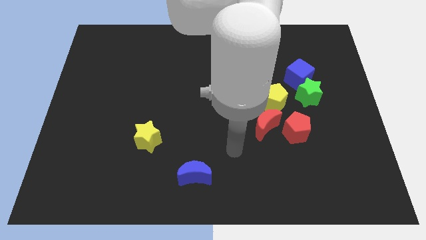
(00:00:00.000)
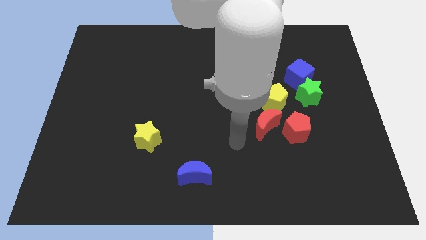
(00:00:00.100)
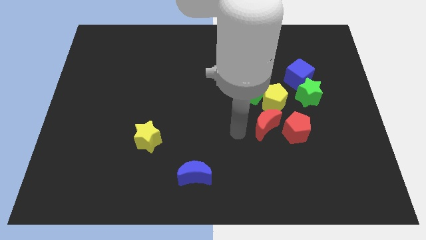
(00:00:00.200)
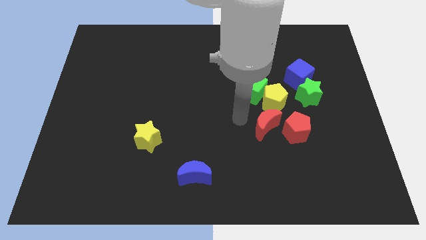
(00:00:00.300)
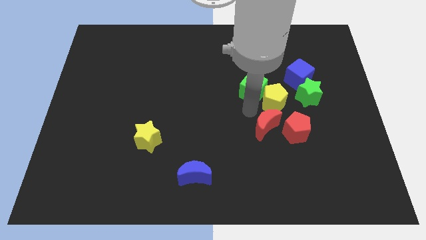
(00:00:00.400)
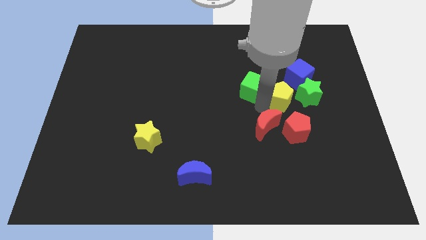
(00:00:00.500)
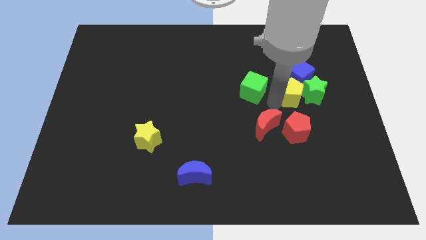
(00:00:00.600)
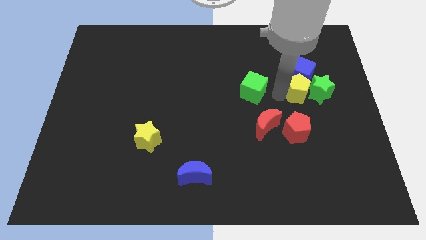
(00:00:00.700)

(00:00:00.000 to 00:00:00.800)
move the green cube away from the yellow pentagon

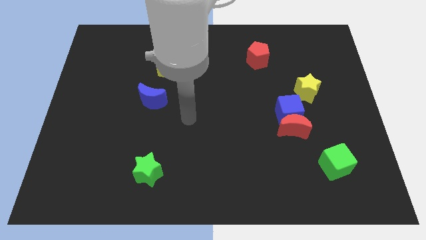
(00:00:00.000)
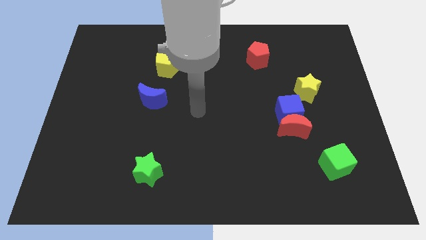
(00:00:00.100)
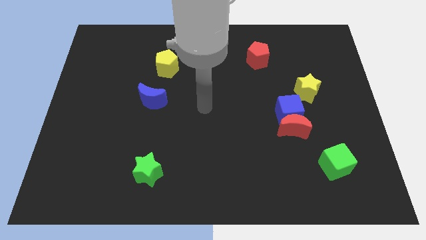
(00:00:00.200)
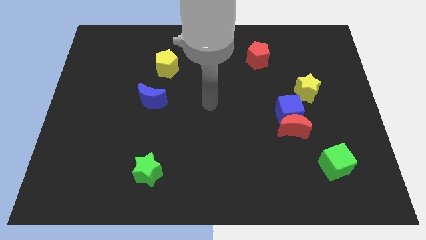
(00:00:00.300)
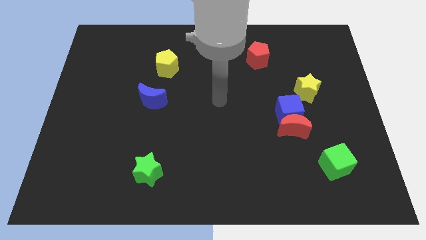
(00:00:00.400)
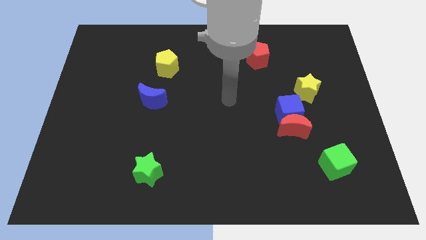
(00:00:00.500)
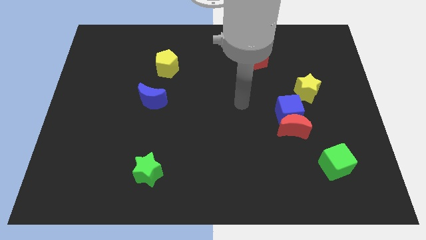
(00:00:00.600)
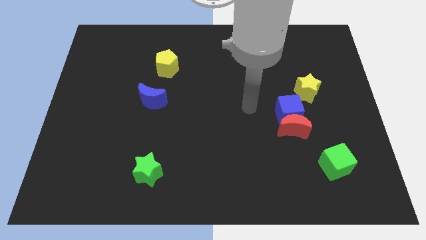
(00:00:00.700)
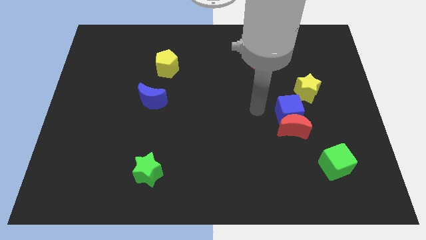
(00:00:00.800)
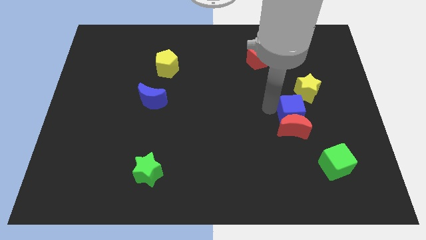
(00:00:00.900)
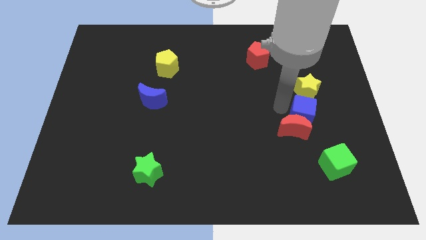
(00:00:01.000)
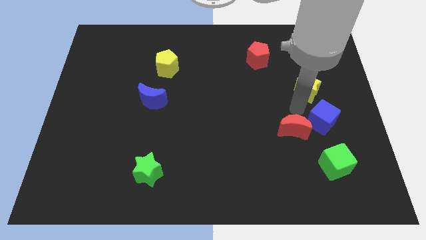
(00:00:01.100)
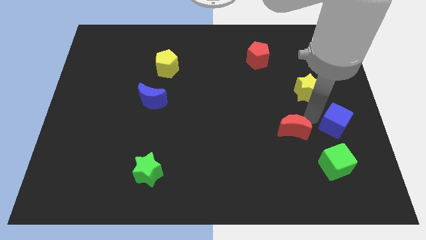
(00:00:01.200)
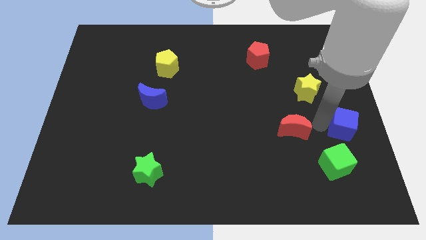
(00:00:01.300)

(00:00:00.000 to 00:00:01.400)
separate the red moon from the blue cube

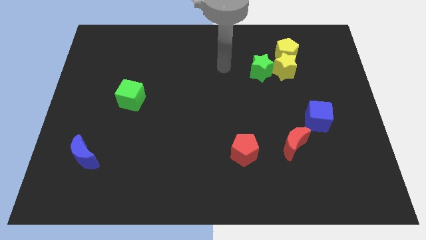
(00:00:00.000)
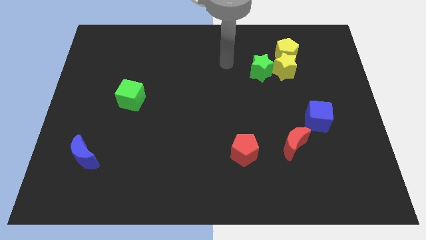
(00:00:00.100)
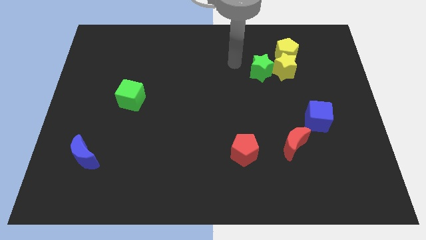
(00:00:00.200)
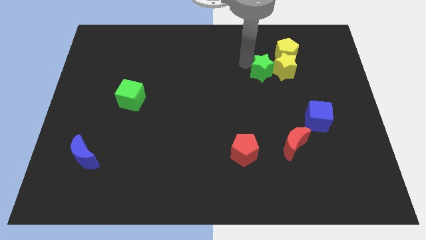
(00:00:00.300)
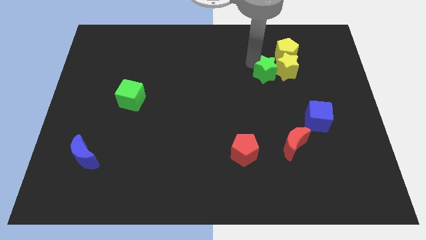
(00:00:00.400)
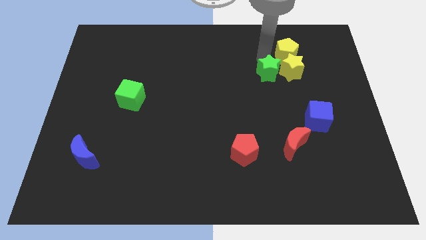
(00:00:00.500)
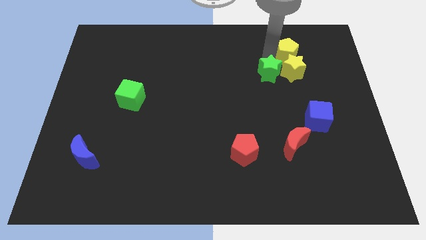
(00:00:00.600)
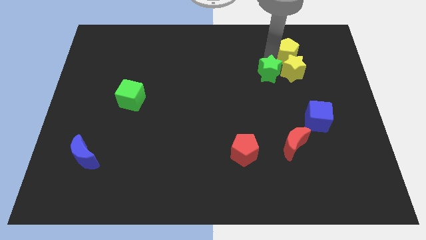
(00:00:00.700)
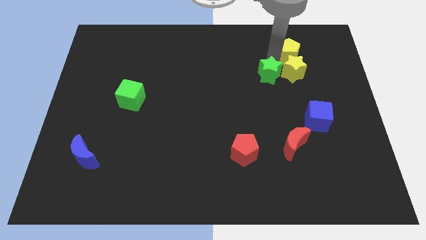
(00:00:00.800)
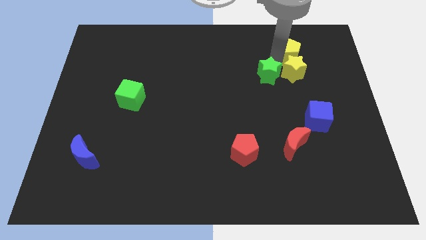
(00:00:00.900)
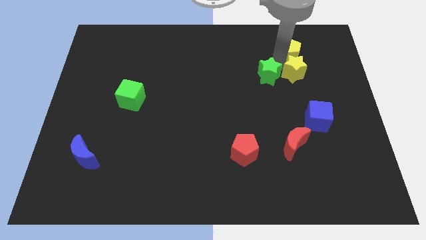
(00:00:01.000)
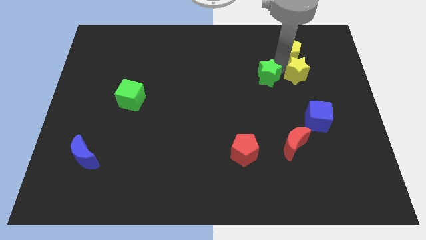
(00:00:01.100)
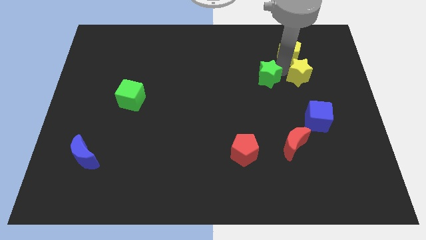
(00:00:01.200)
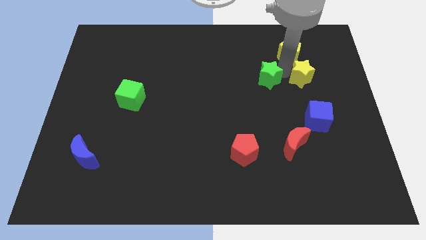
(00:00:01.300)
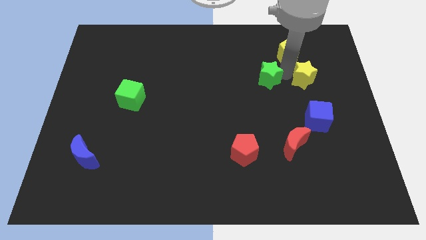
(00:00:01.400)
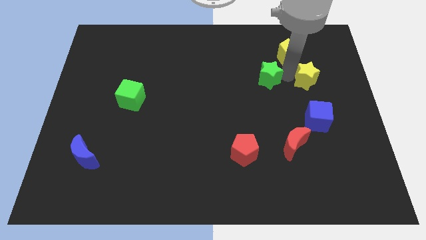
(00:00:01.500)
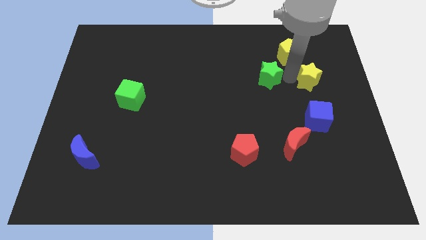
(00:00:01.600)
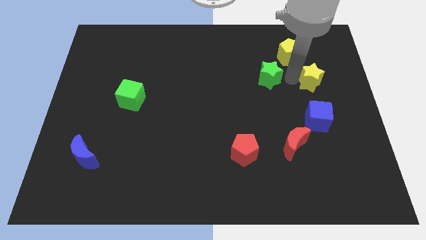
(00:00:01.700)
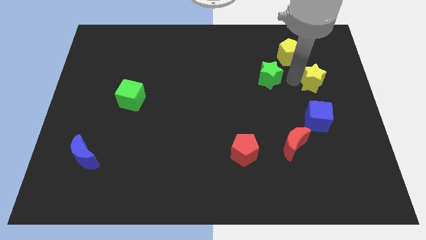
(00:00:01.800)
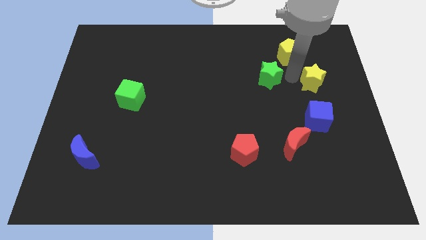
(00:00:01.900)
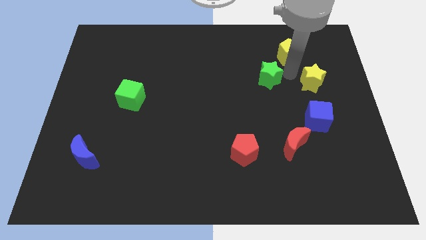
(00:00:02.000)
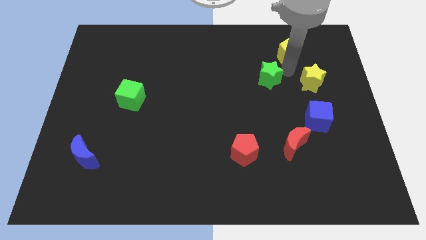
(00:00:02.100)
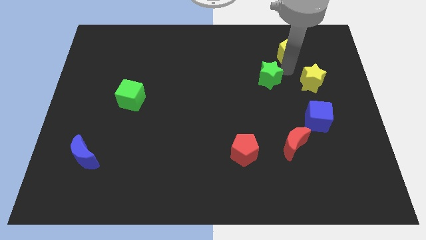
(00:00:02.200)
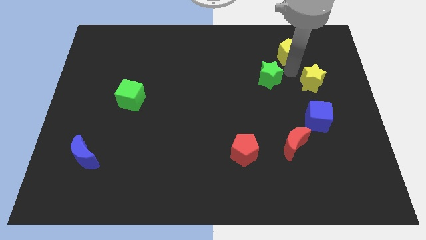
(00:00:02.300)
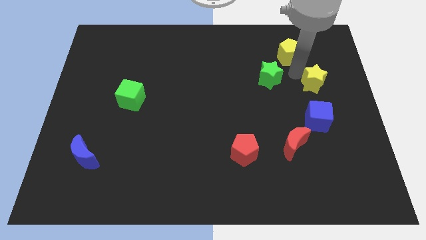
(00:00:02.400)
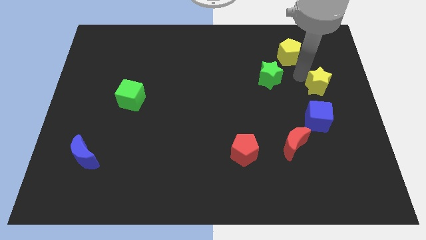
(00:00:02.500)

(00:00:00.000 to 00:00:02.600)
move the yellow star away from the yellow pentagon and green star

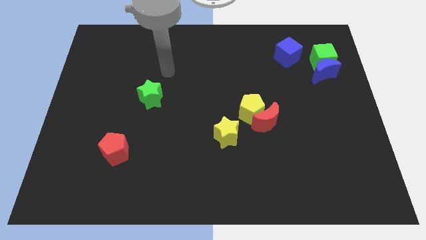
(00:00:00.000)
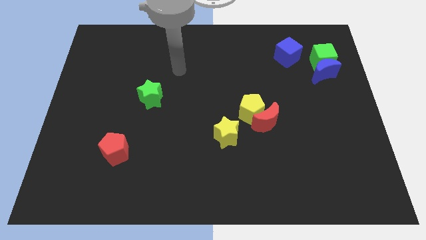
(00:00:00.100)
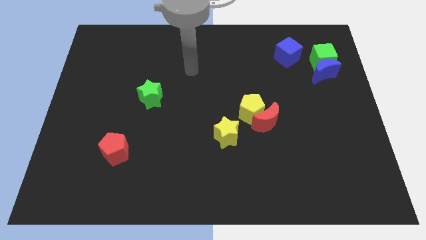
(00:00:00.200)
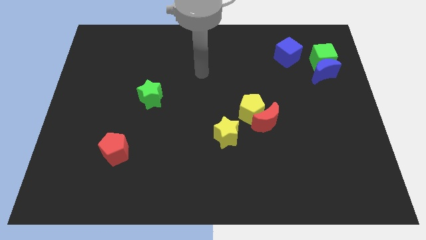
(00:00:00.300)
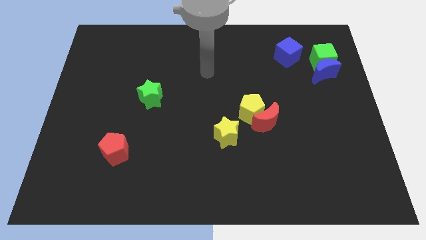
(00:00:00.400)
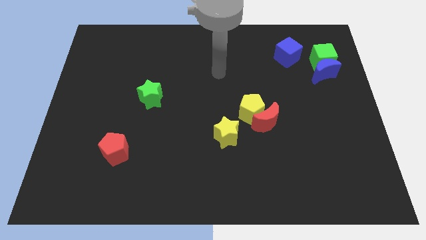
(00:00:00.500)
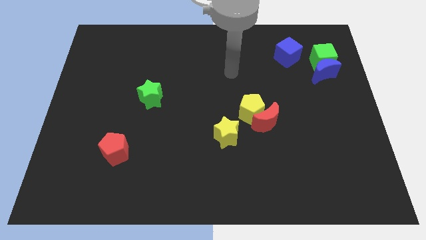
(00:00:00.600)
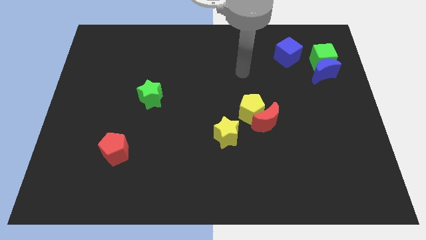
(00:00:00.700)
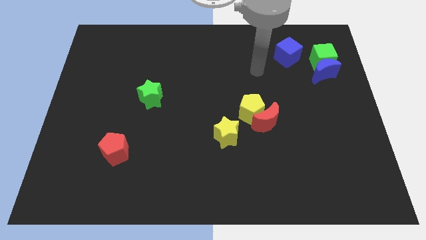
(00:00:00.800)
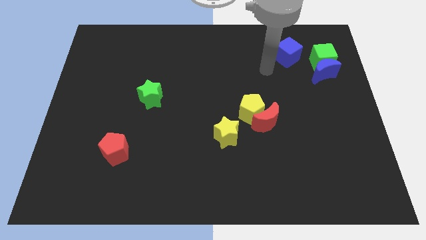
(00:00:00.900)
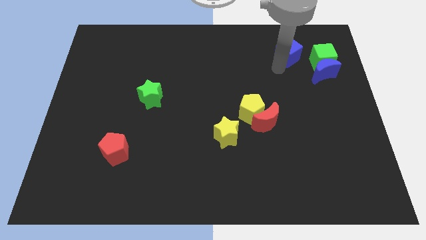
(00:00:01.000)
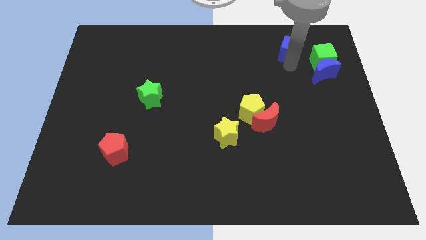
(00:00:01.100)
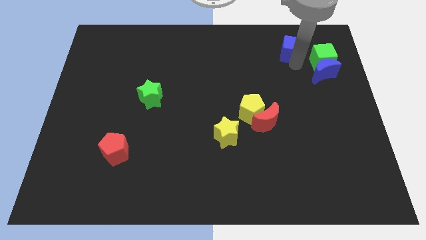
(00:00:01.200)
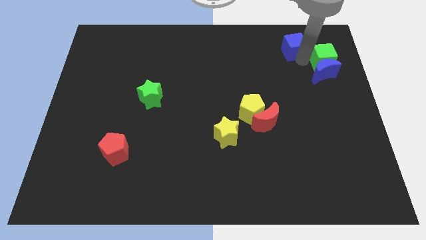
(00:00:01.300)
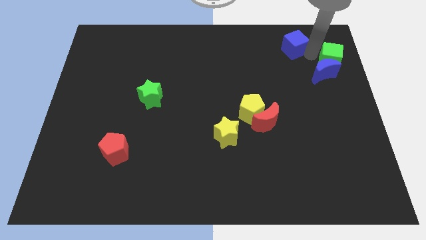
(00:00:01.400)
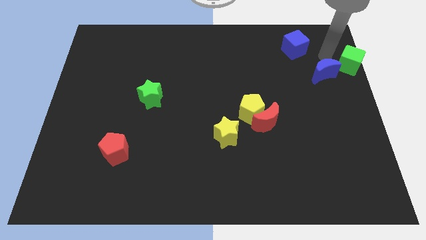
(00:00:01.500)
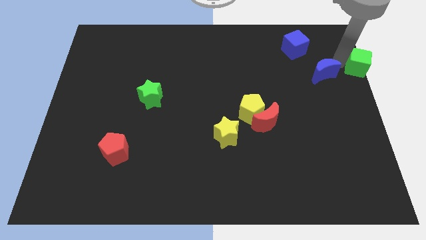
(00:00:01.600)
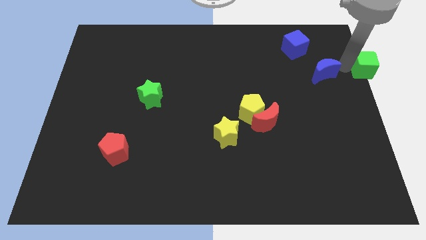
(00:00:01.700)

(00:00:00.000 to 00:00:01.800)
separate the blue moon from the green cube

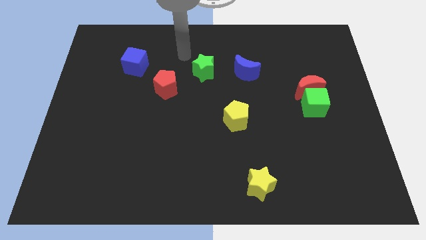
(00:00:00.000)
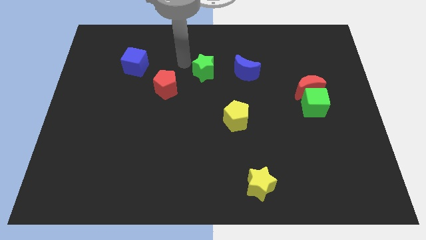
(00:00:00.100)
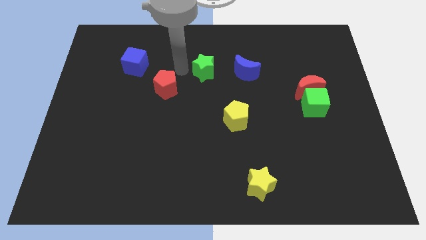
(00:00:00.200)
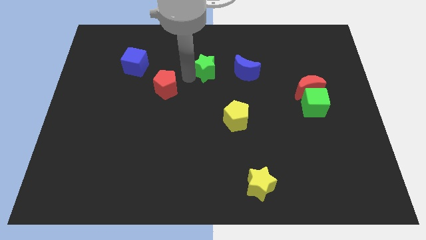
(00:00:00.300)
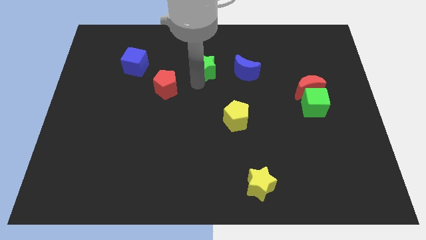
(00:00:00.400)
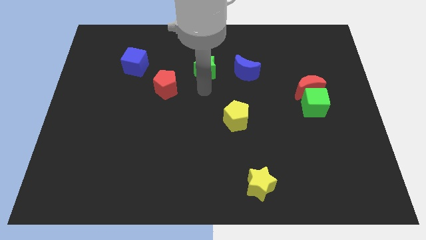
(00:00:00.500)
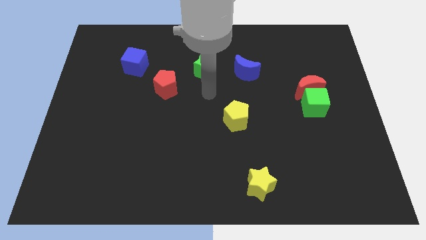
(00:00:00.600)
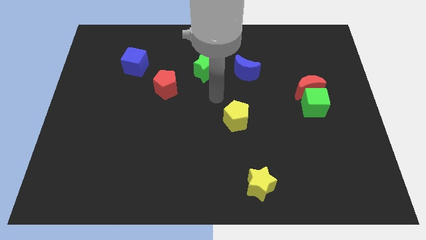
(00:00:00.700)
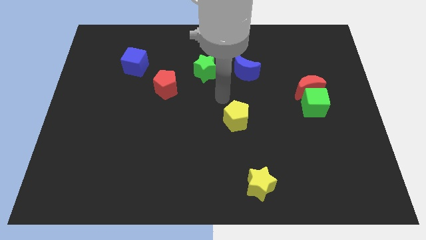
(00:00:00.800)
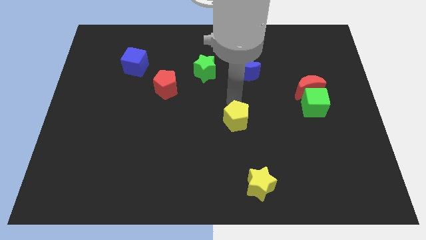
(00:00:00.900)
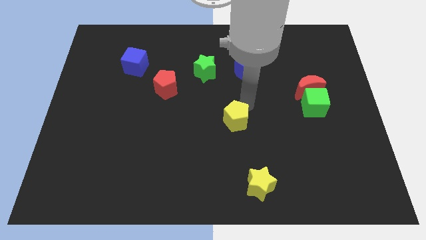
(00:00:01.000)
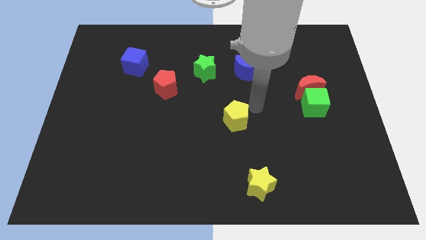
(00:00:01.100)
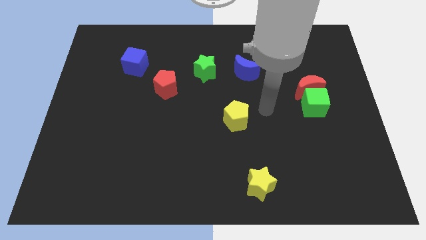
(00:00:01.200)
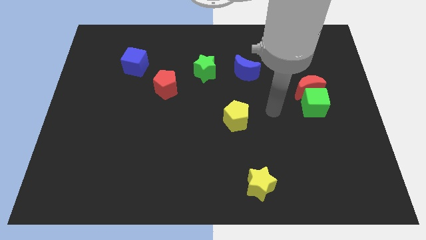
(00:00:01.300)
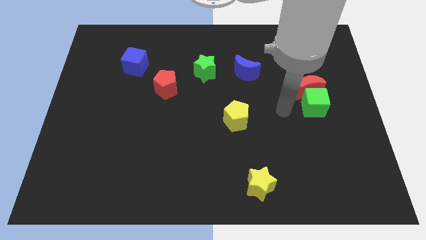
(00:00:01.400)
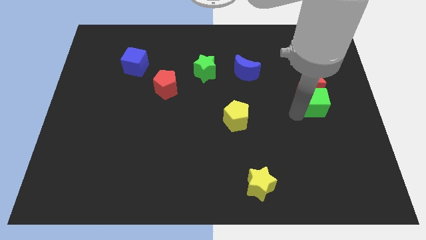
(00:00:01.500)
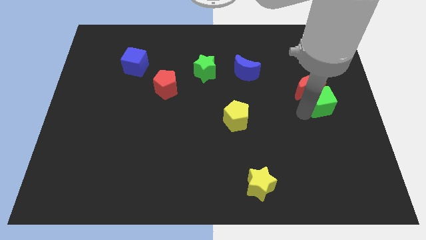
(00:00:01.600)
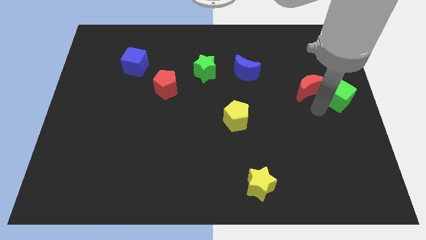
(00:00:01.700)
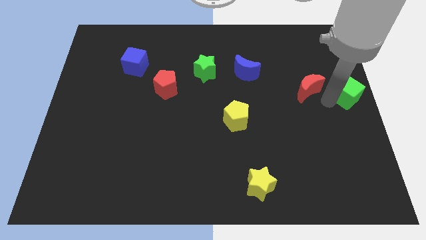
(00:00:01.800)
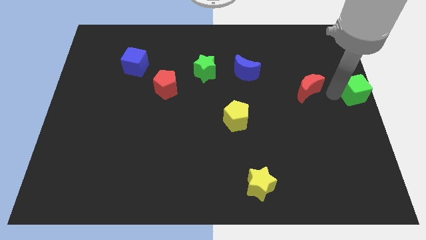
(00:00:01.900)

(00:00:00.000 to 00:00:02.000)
pull the red moon apart from the green cube

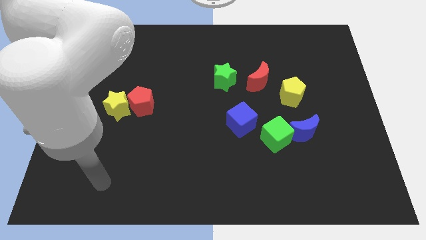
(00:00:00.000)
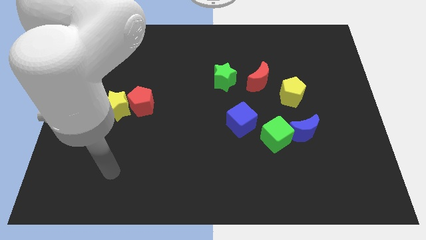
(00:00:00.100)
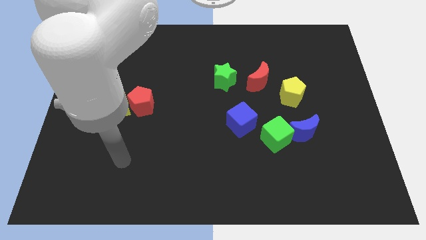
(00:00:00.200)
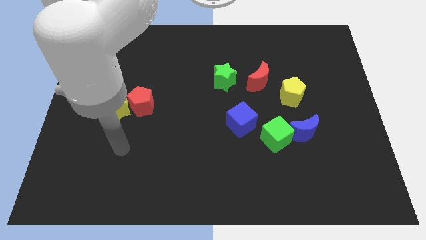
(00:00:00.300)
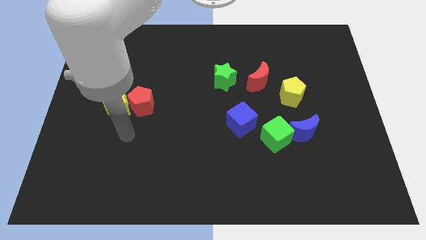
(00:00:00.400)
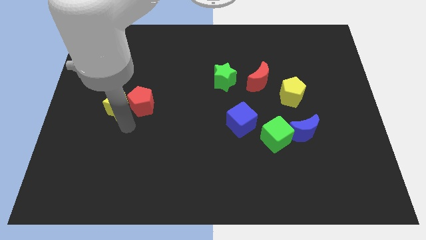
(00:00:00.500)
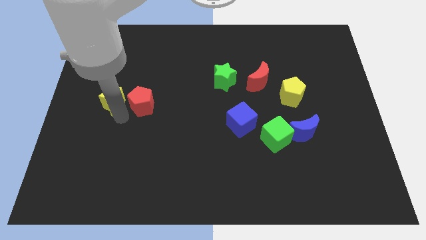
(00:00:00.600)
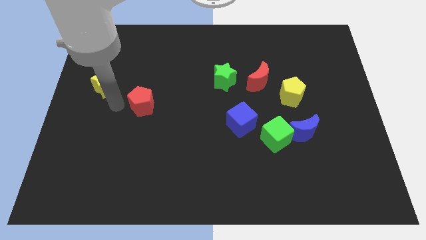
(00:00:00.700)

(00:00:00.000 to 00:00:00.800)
separate the red pentagon from the yellow star
